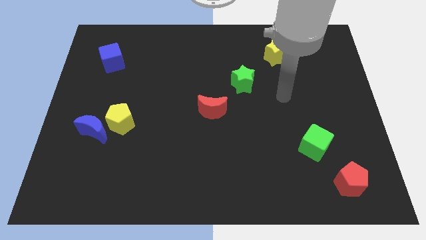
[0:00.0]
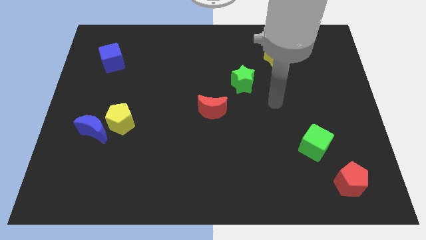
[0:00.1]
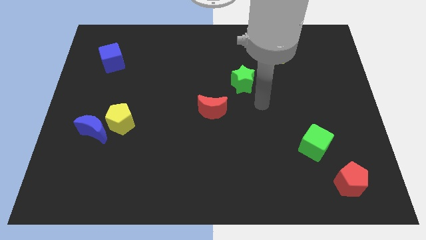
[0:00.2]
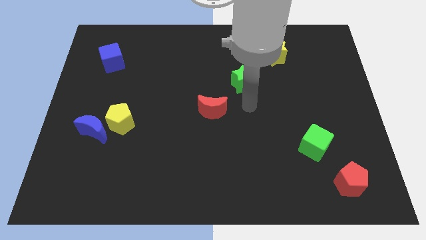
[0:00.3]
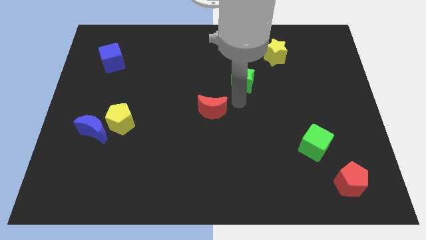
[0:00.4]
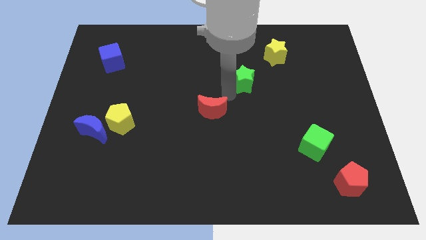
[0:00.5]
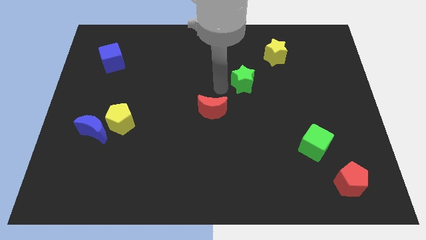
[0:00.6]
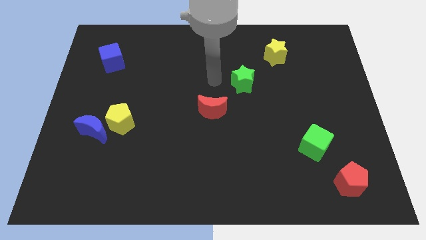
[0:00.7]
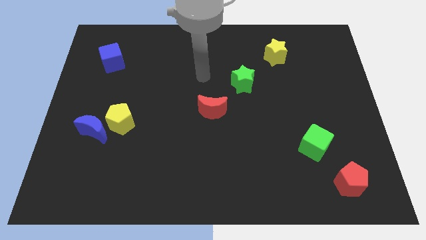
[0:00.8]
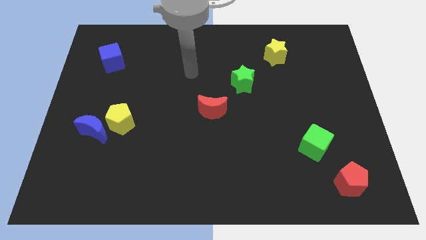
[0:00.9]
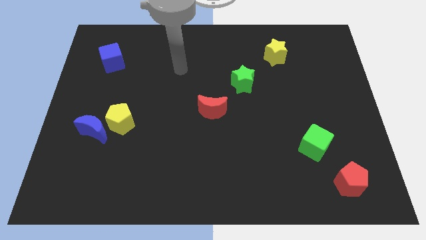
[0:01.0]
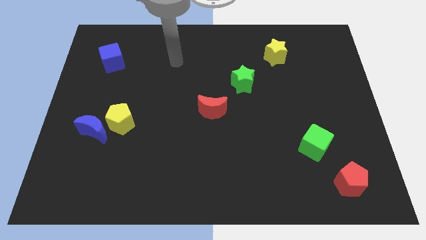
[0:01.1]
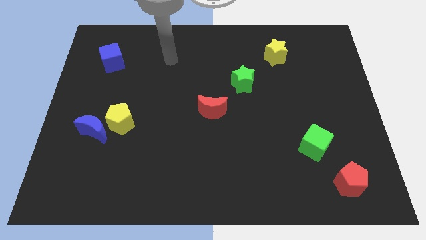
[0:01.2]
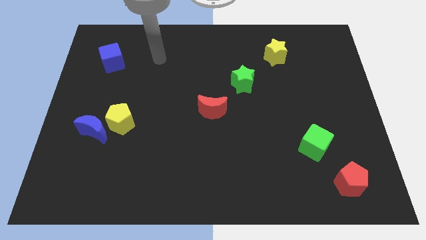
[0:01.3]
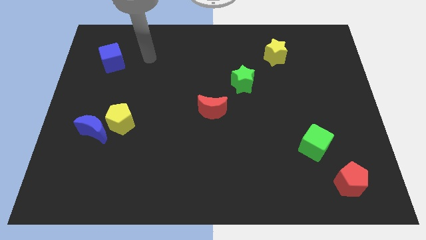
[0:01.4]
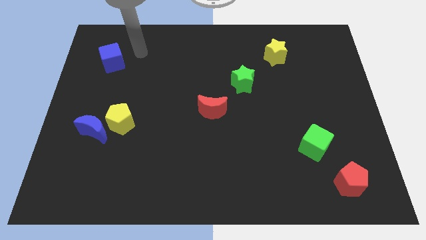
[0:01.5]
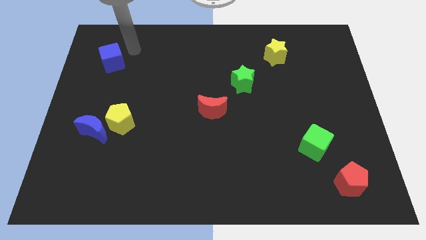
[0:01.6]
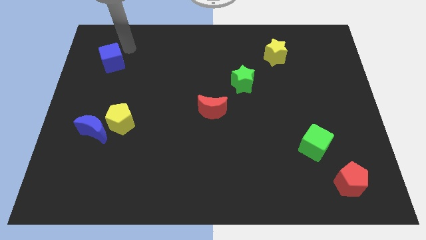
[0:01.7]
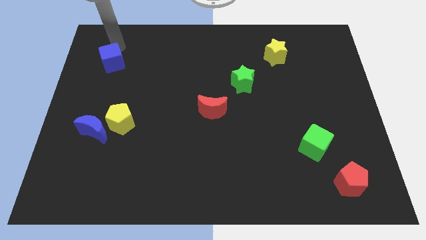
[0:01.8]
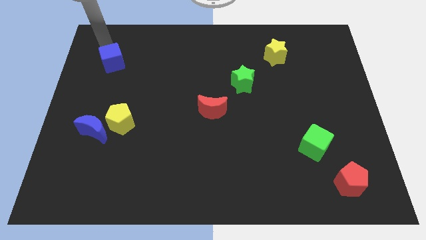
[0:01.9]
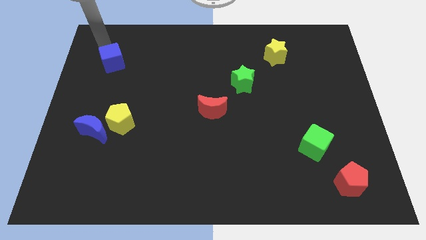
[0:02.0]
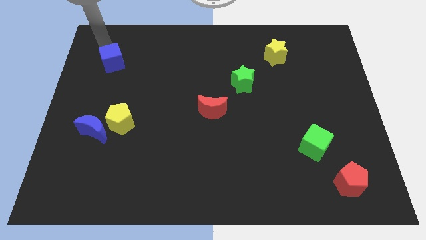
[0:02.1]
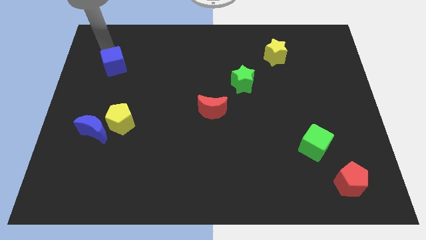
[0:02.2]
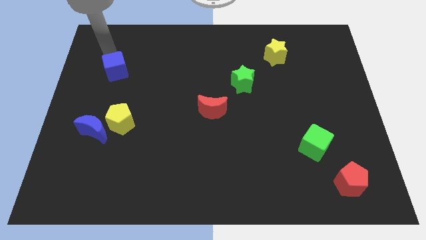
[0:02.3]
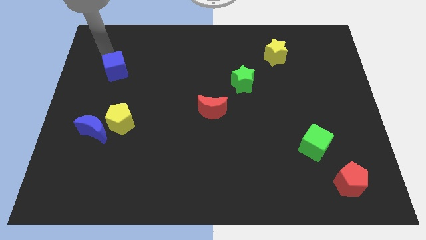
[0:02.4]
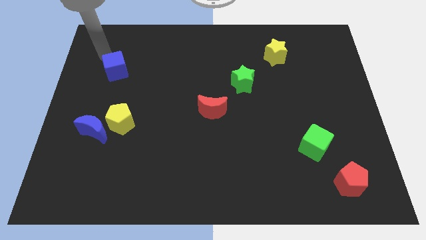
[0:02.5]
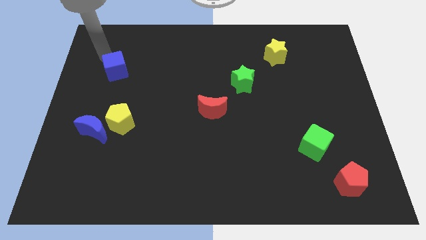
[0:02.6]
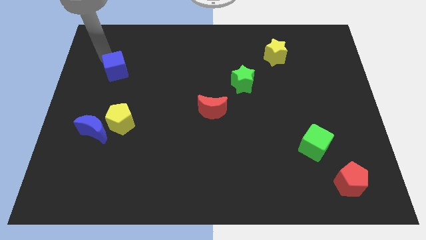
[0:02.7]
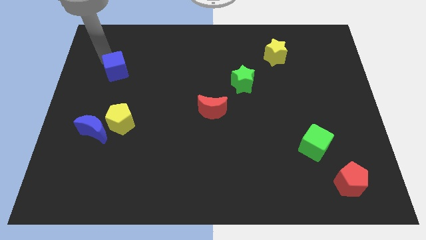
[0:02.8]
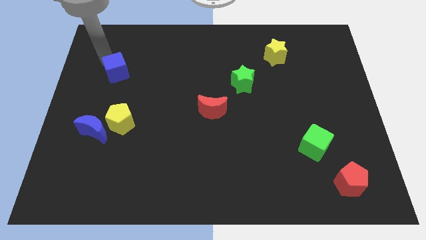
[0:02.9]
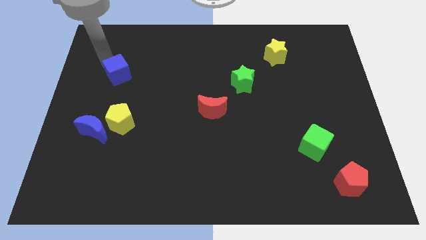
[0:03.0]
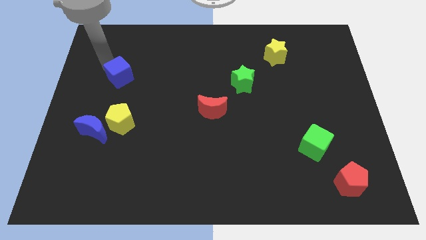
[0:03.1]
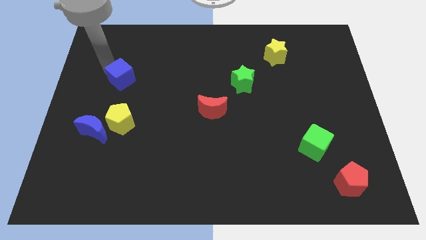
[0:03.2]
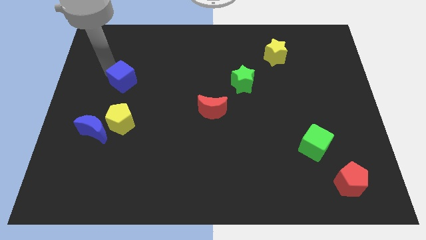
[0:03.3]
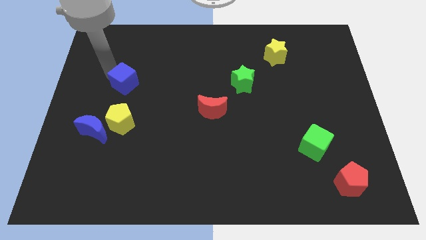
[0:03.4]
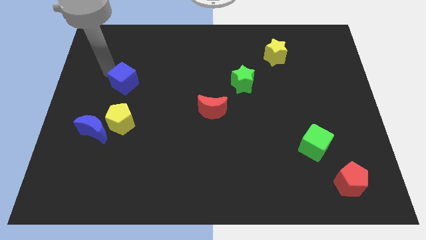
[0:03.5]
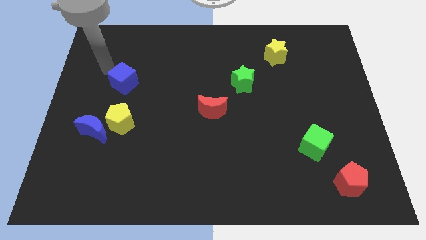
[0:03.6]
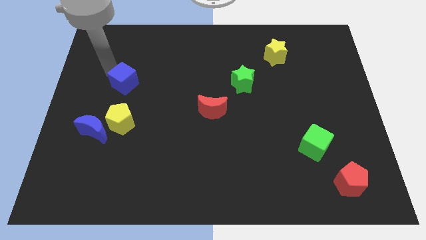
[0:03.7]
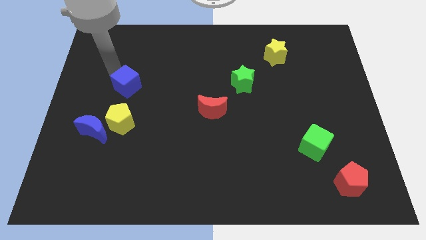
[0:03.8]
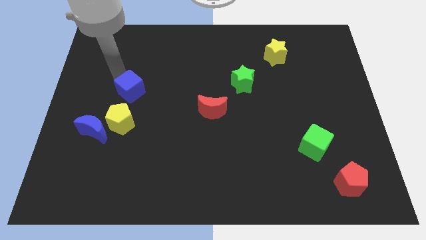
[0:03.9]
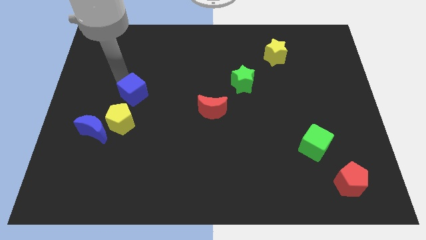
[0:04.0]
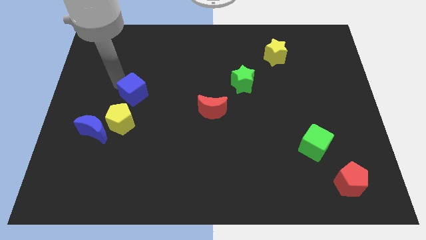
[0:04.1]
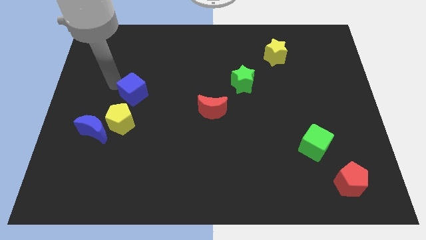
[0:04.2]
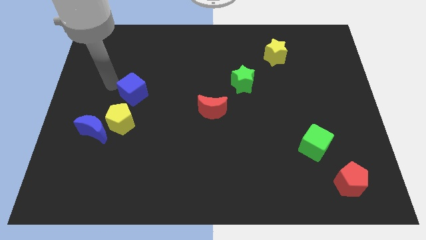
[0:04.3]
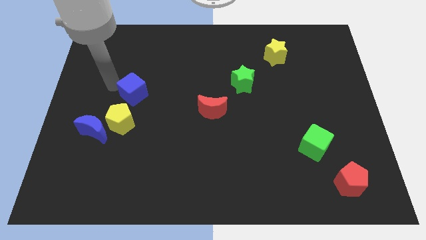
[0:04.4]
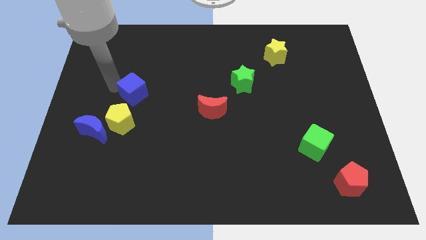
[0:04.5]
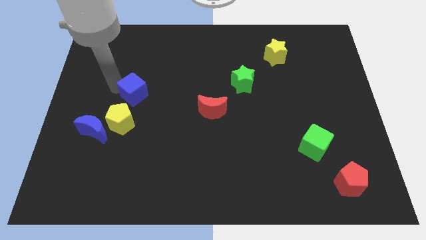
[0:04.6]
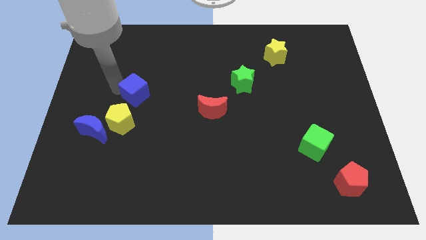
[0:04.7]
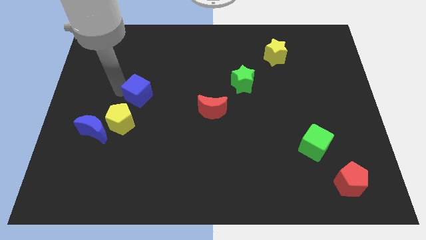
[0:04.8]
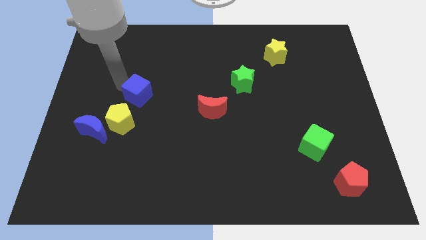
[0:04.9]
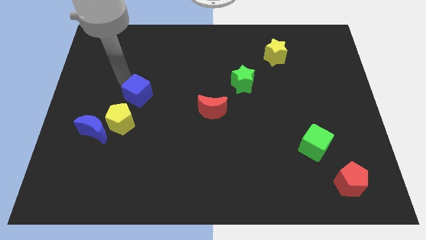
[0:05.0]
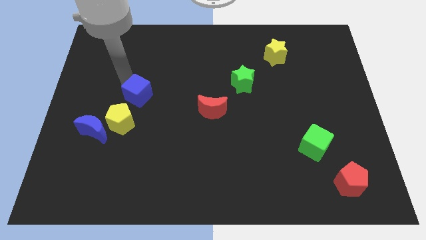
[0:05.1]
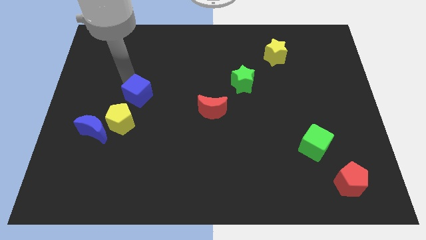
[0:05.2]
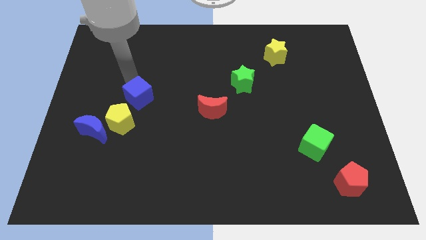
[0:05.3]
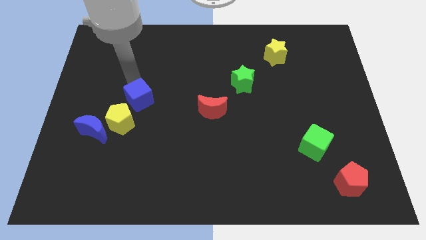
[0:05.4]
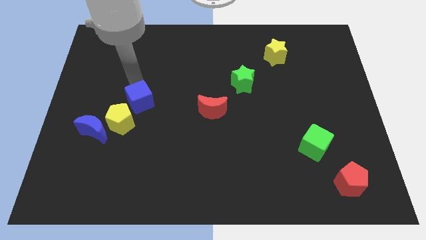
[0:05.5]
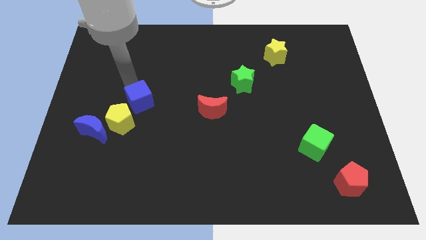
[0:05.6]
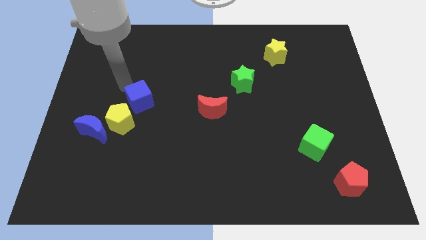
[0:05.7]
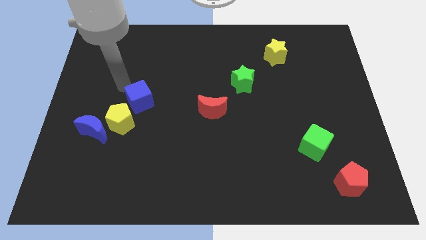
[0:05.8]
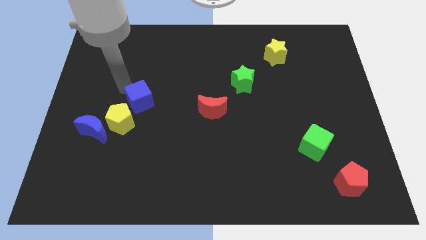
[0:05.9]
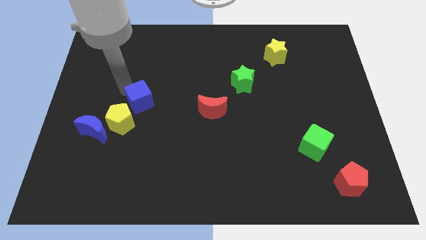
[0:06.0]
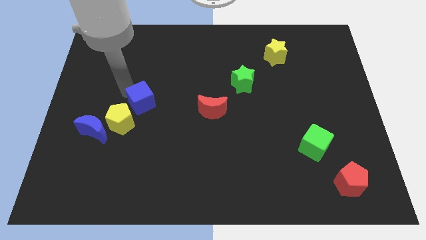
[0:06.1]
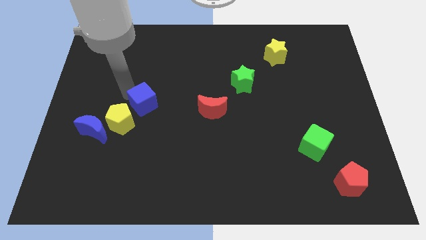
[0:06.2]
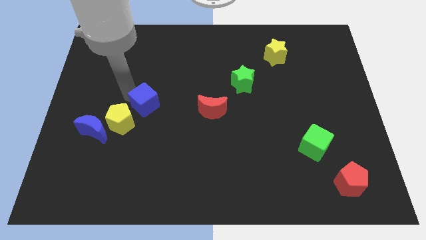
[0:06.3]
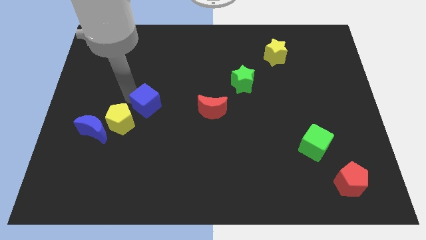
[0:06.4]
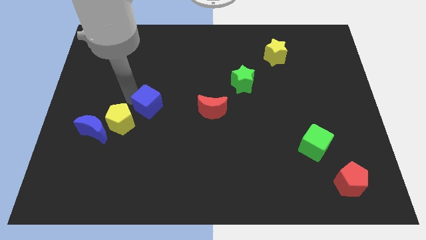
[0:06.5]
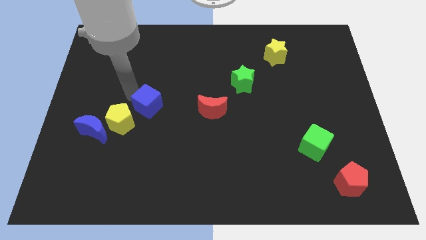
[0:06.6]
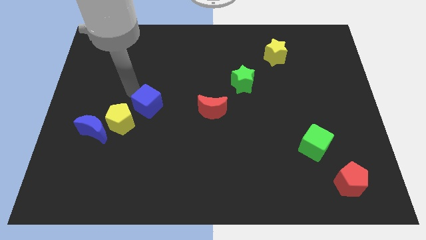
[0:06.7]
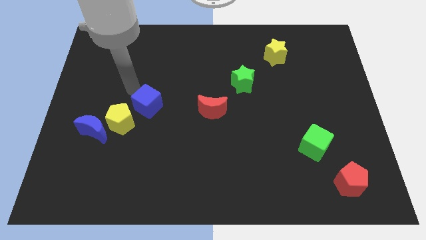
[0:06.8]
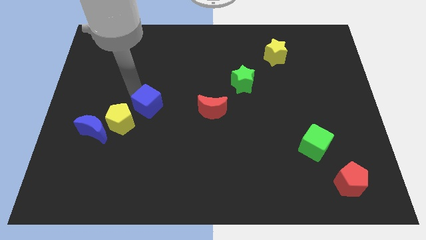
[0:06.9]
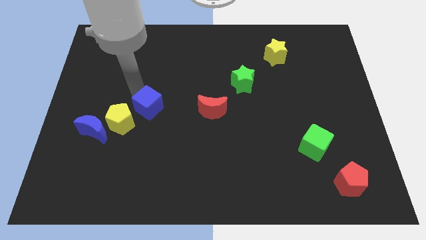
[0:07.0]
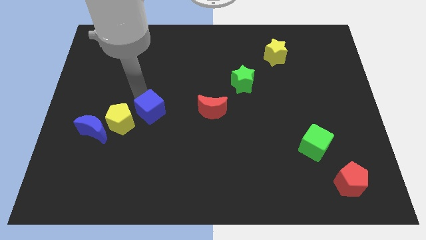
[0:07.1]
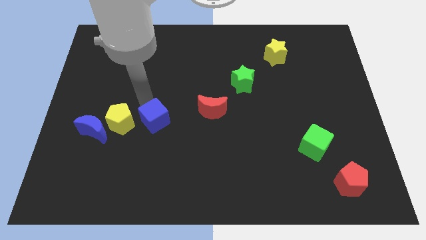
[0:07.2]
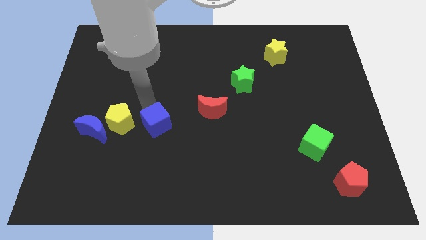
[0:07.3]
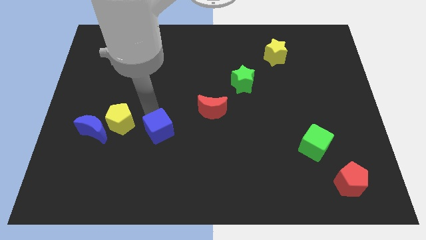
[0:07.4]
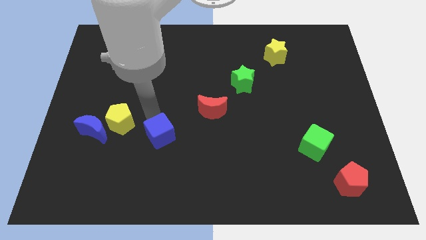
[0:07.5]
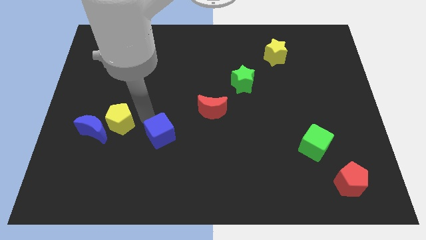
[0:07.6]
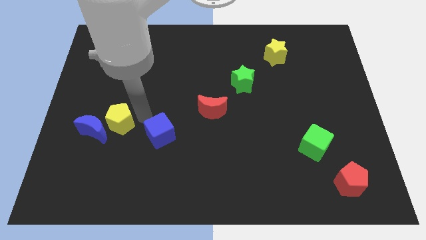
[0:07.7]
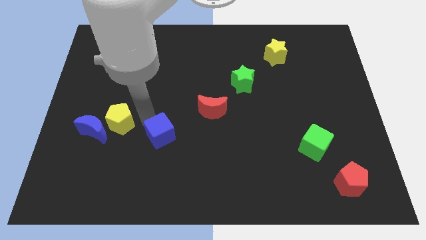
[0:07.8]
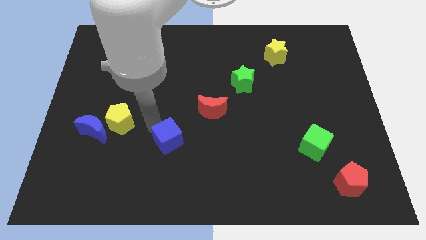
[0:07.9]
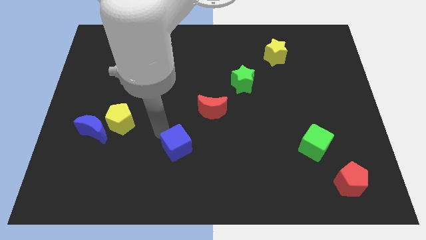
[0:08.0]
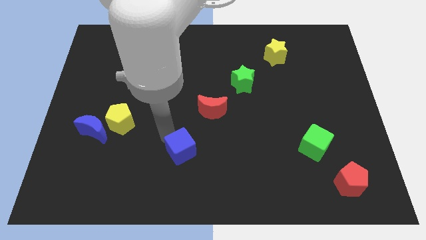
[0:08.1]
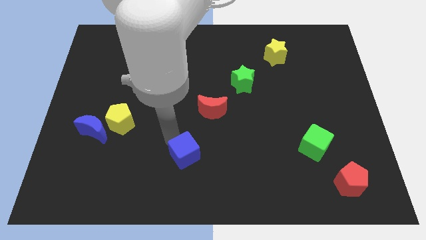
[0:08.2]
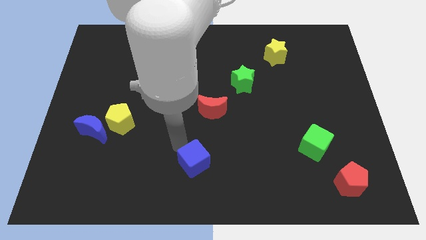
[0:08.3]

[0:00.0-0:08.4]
put the blue cube to the bottom side
